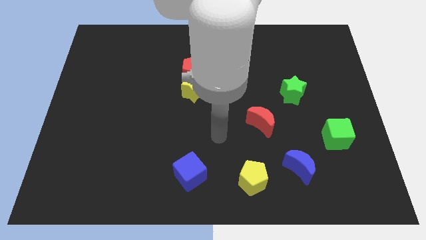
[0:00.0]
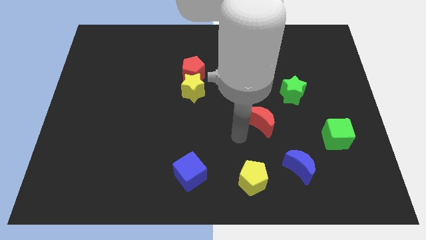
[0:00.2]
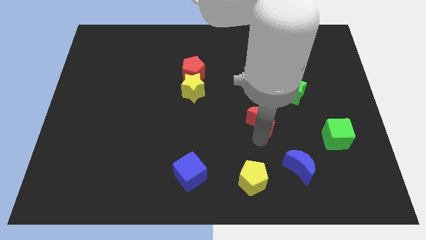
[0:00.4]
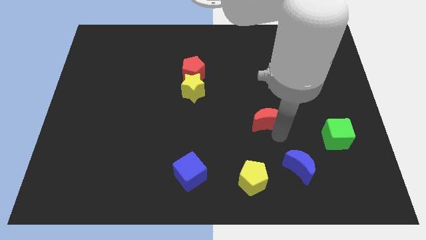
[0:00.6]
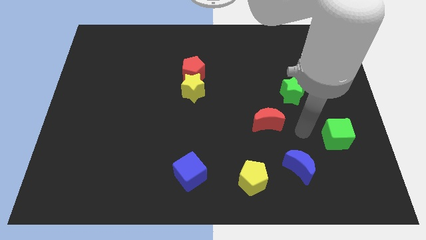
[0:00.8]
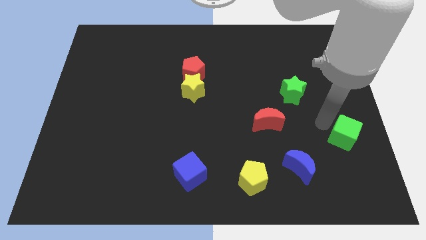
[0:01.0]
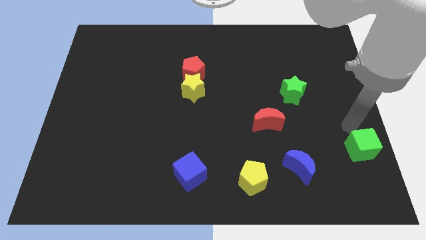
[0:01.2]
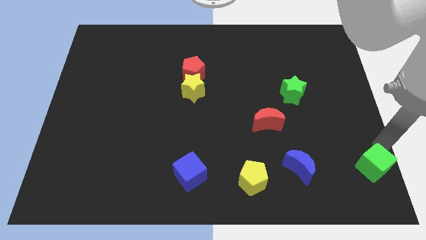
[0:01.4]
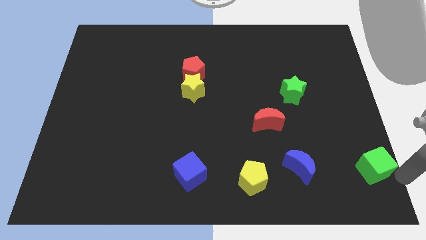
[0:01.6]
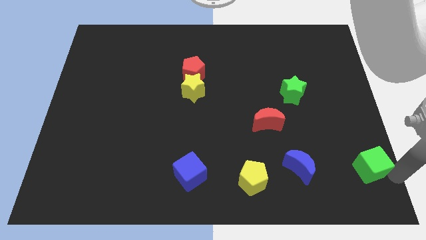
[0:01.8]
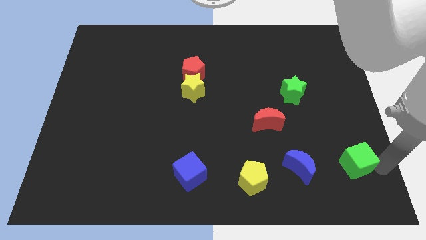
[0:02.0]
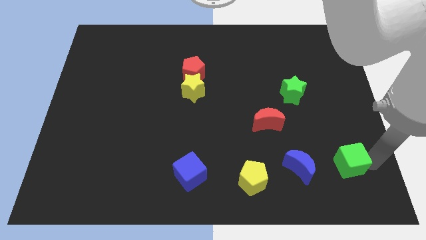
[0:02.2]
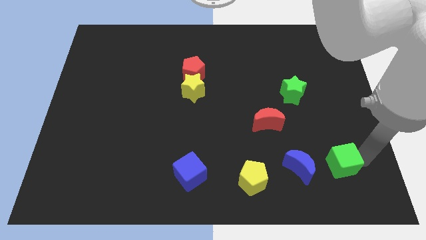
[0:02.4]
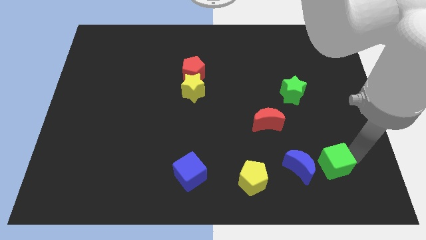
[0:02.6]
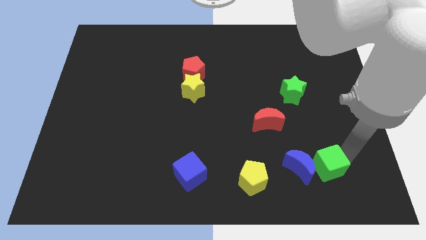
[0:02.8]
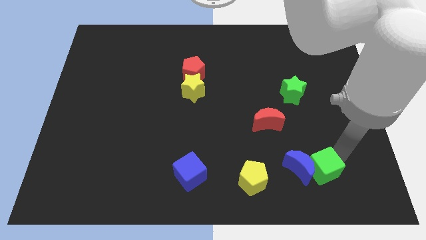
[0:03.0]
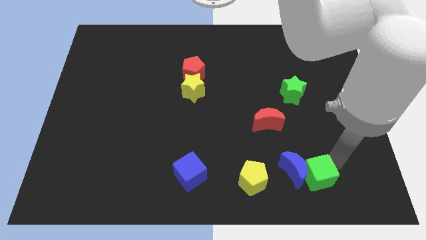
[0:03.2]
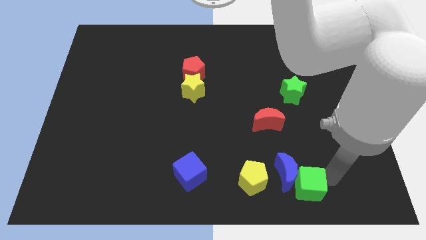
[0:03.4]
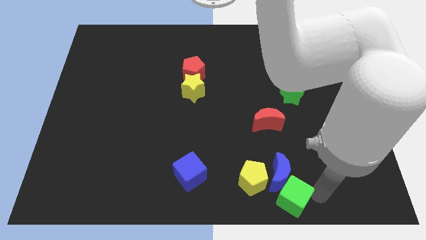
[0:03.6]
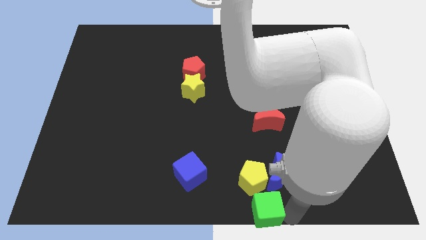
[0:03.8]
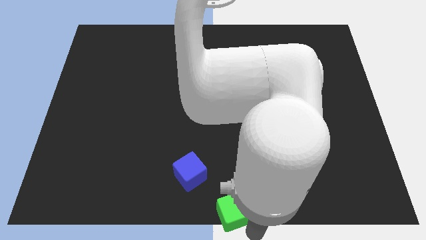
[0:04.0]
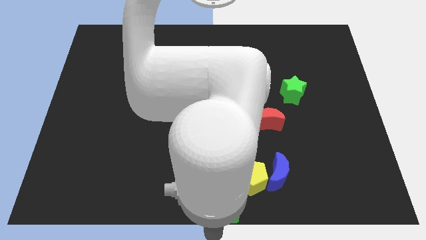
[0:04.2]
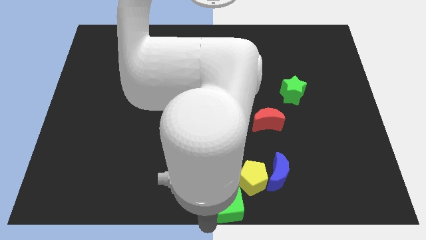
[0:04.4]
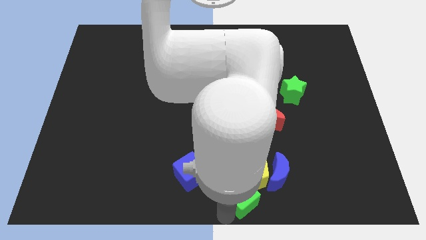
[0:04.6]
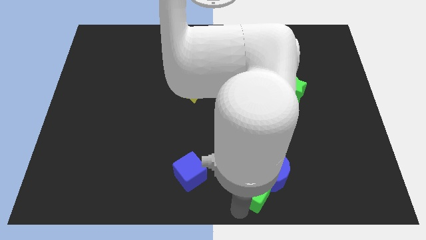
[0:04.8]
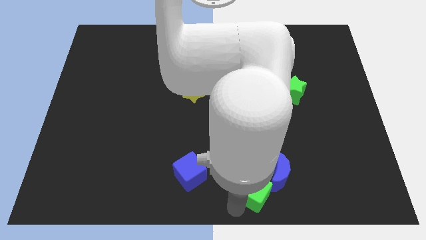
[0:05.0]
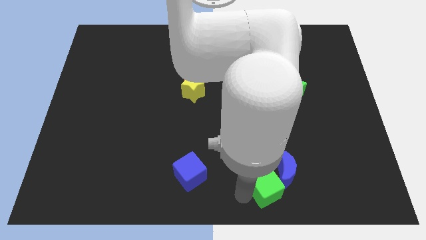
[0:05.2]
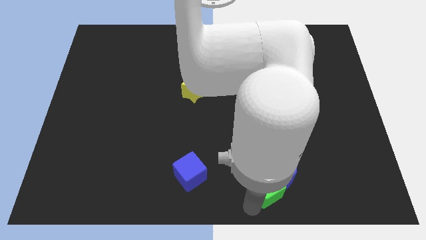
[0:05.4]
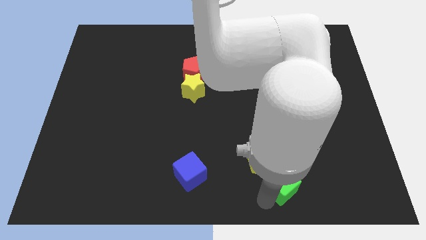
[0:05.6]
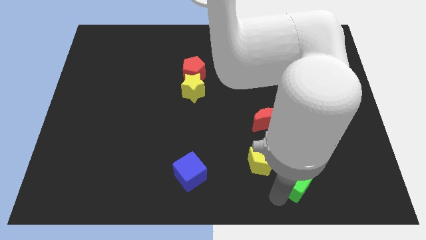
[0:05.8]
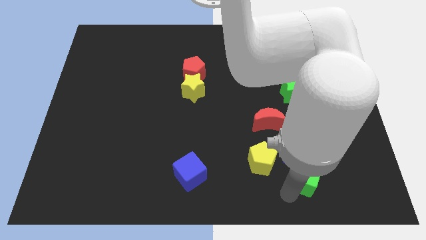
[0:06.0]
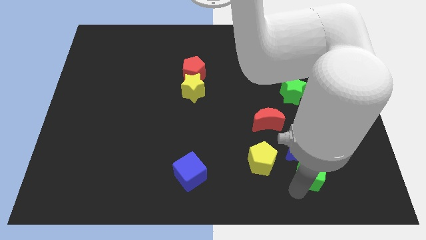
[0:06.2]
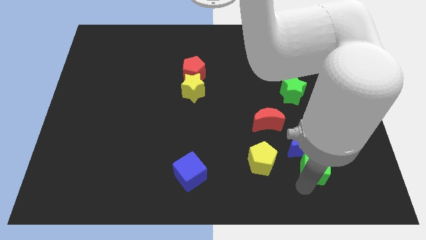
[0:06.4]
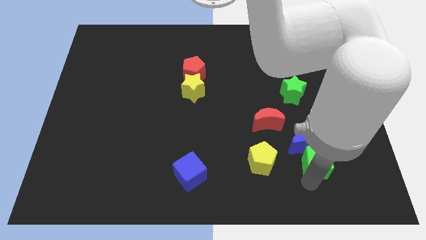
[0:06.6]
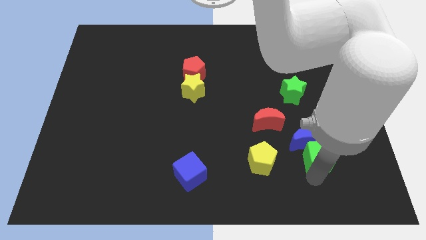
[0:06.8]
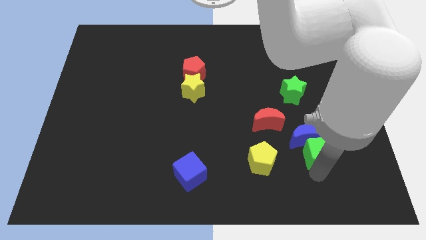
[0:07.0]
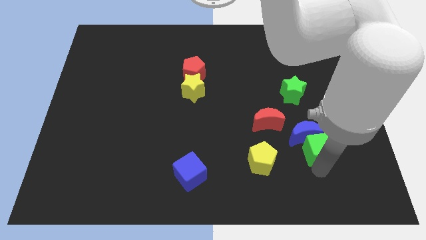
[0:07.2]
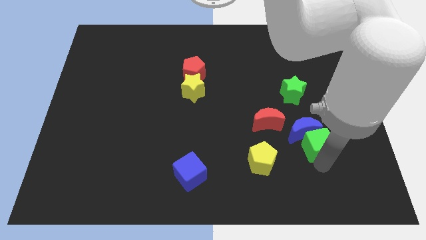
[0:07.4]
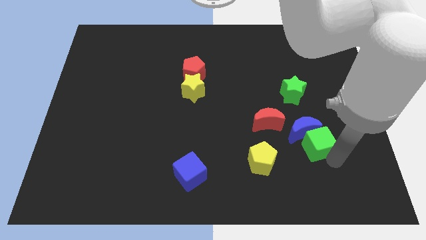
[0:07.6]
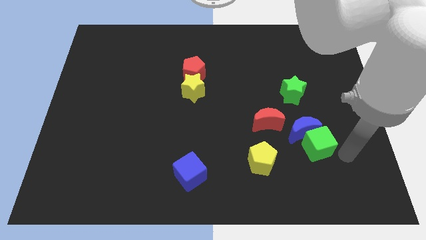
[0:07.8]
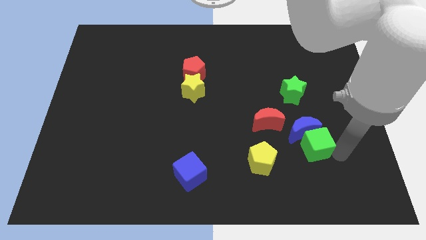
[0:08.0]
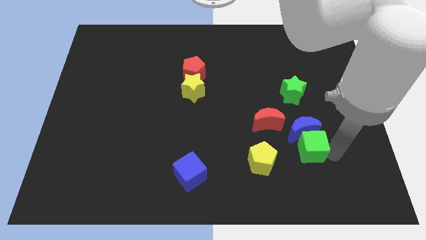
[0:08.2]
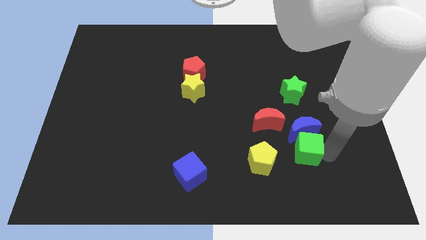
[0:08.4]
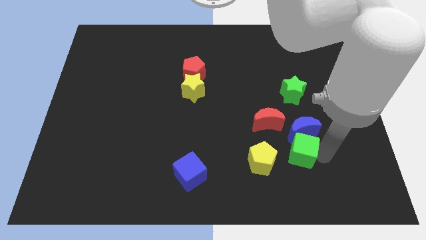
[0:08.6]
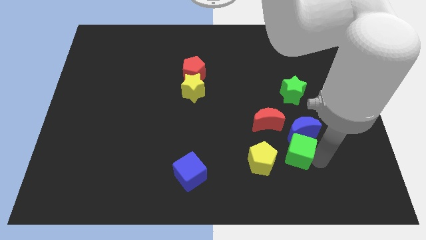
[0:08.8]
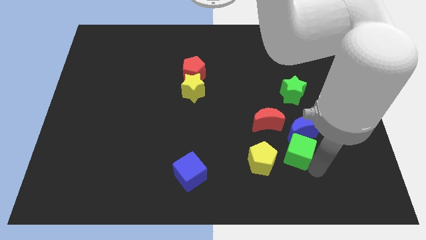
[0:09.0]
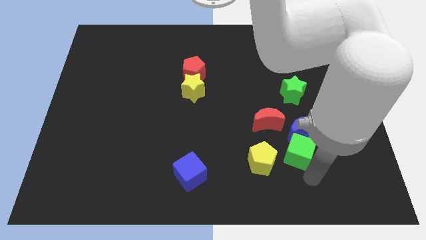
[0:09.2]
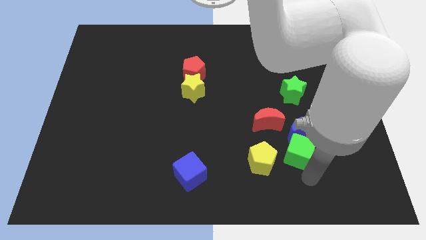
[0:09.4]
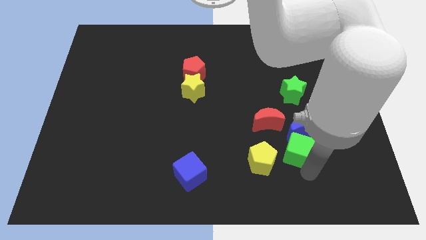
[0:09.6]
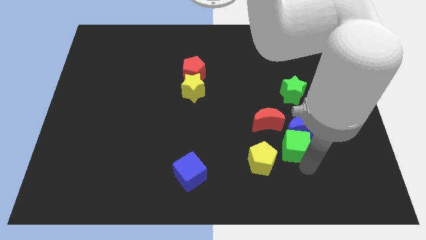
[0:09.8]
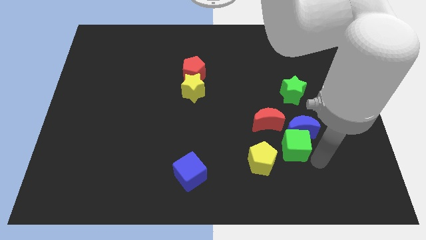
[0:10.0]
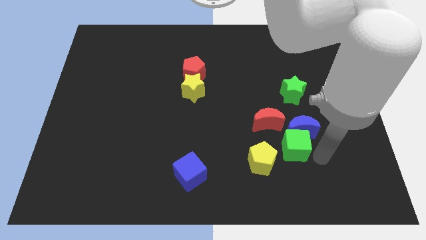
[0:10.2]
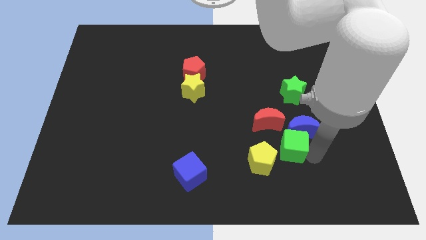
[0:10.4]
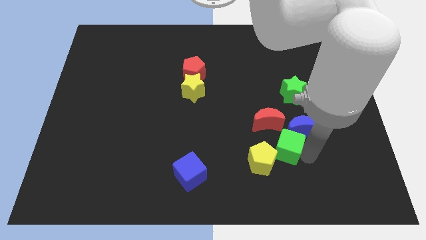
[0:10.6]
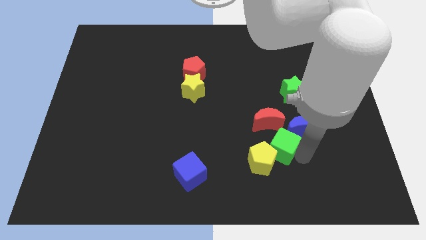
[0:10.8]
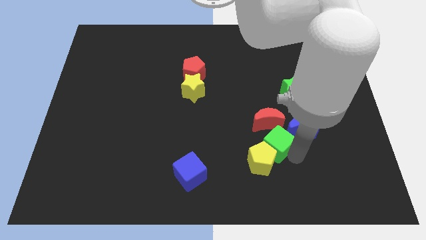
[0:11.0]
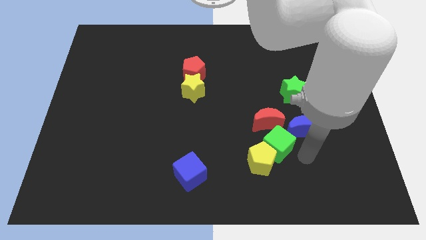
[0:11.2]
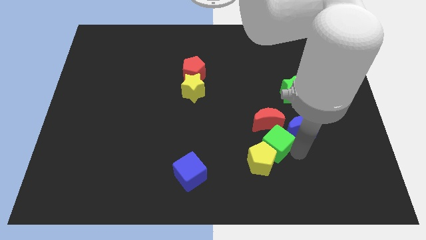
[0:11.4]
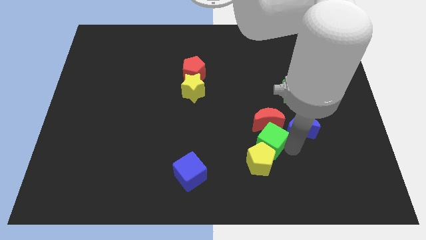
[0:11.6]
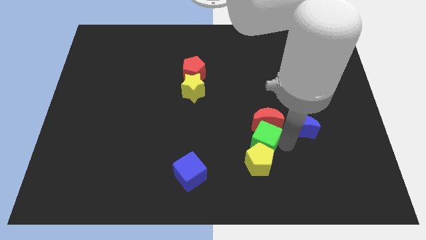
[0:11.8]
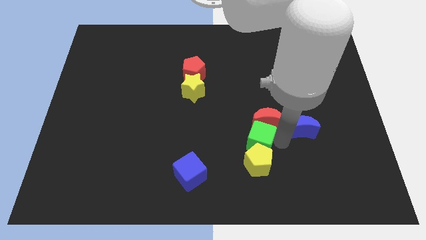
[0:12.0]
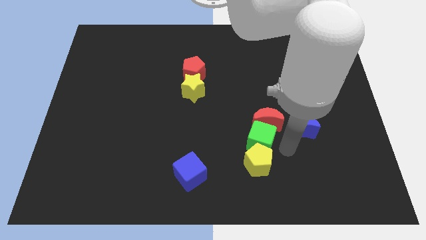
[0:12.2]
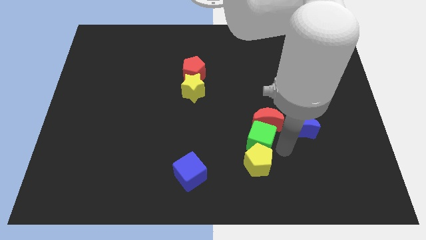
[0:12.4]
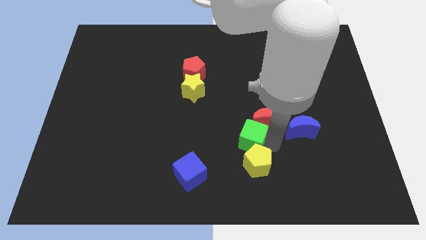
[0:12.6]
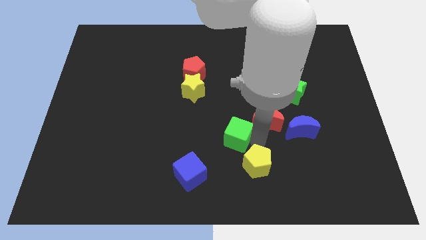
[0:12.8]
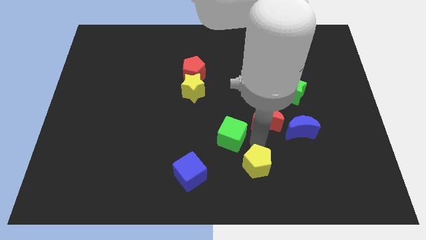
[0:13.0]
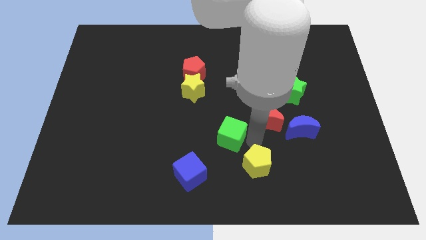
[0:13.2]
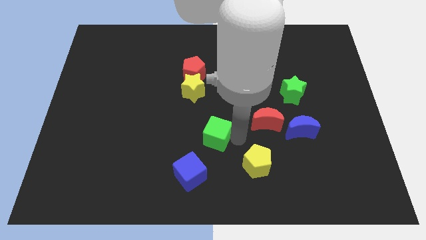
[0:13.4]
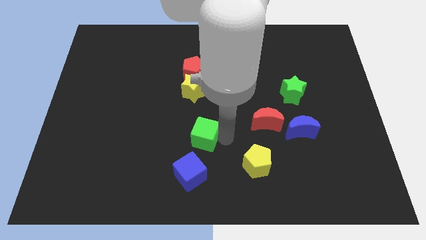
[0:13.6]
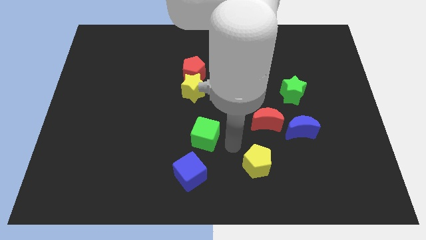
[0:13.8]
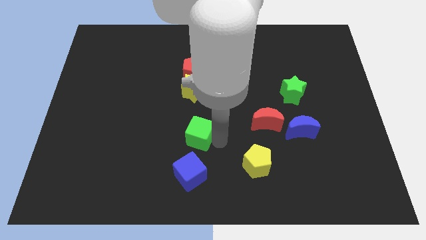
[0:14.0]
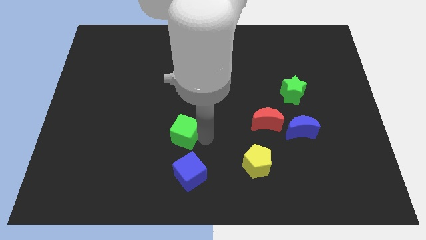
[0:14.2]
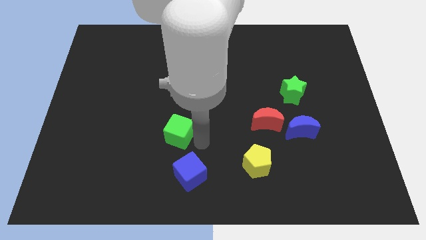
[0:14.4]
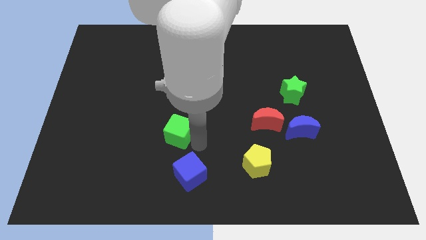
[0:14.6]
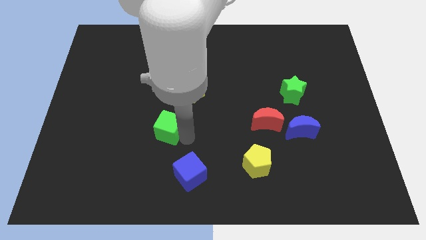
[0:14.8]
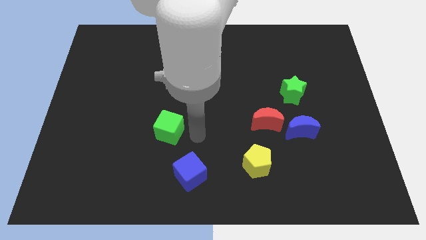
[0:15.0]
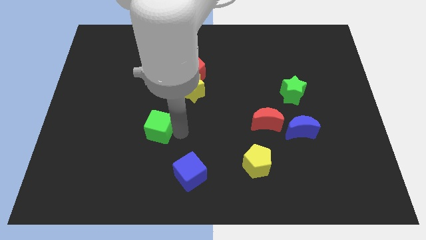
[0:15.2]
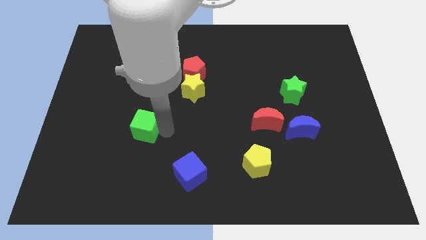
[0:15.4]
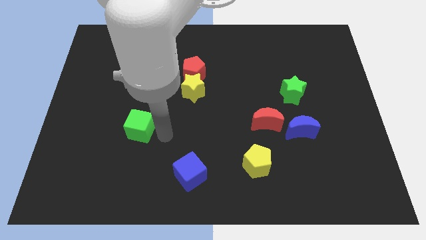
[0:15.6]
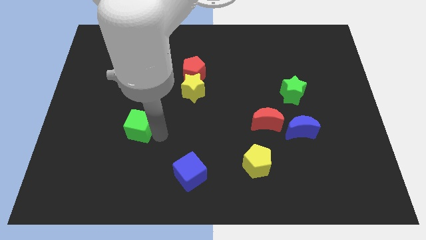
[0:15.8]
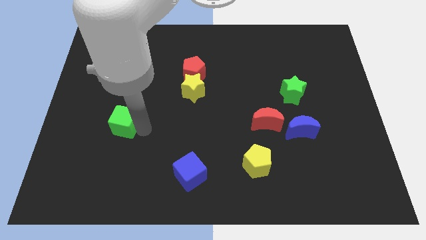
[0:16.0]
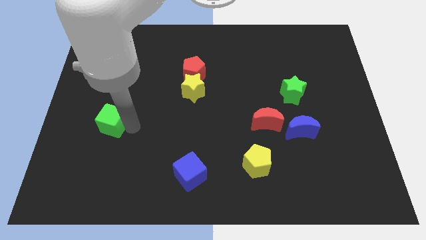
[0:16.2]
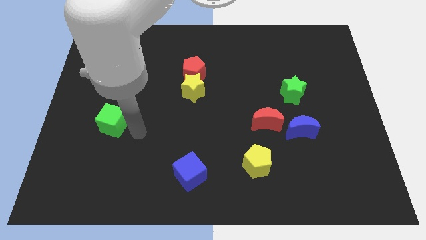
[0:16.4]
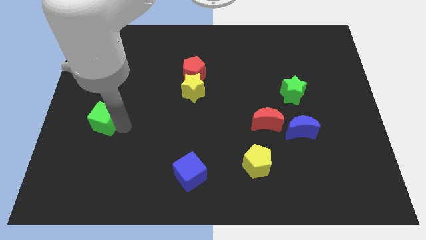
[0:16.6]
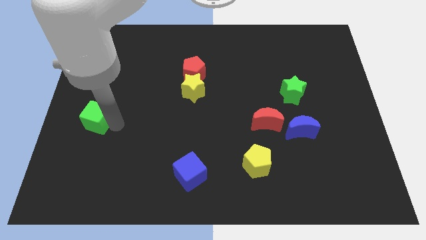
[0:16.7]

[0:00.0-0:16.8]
put the green cube to the left side of the board
